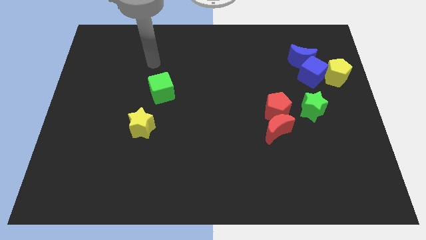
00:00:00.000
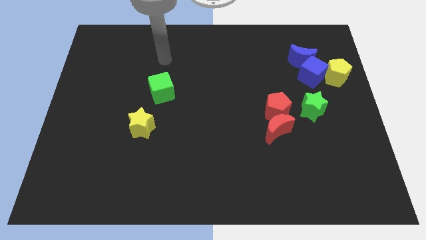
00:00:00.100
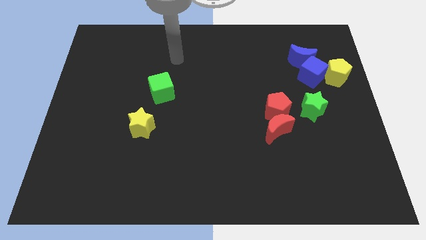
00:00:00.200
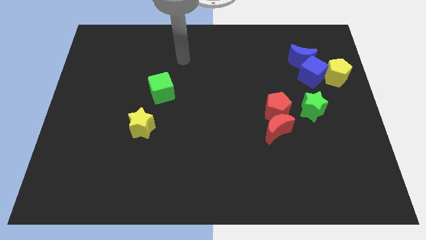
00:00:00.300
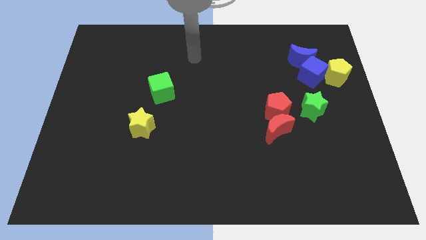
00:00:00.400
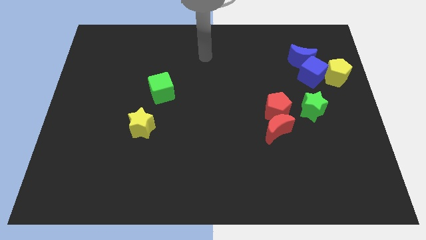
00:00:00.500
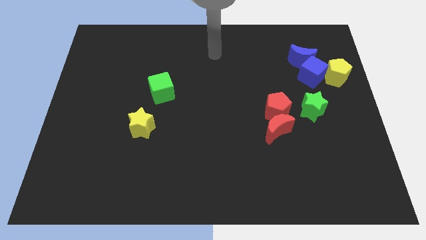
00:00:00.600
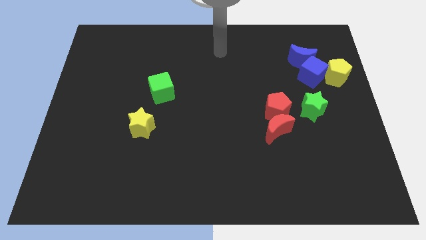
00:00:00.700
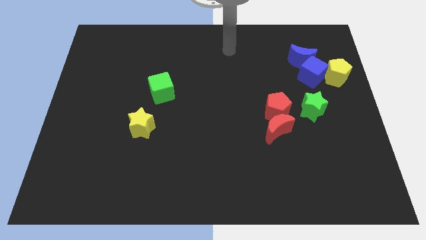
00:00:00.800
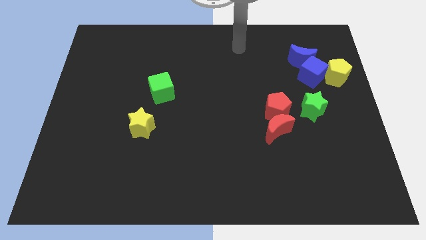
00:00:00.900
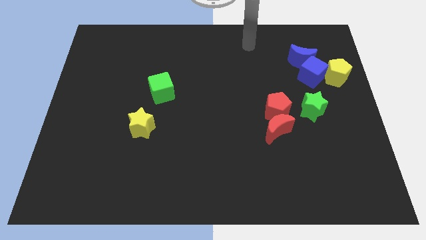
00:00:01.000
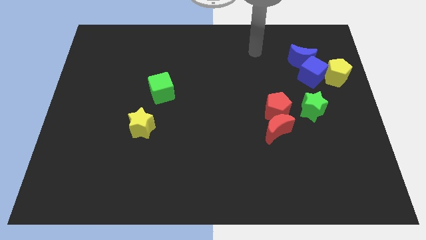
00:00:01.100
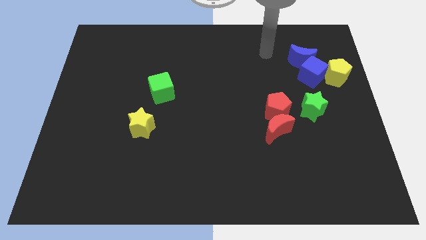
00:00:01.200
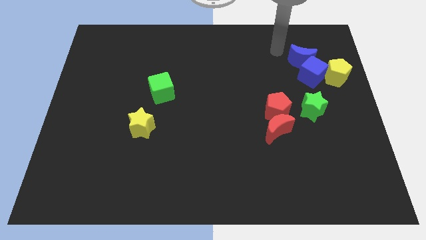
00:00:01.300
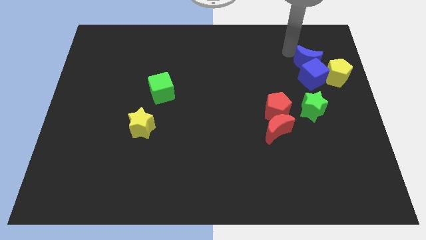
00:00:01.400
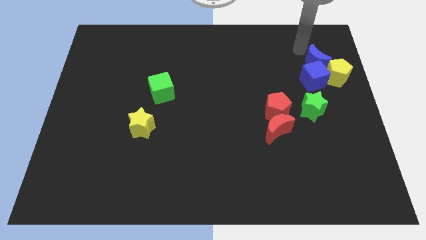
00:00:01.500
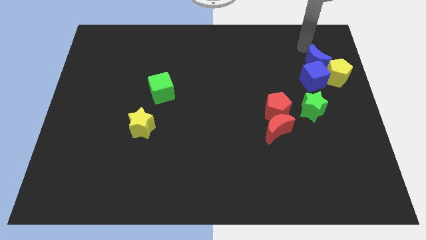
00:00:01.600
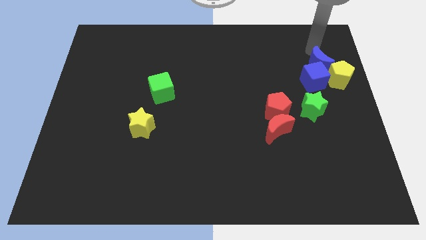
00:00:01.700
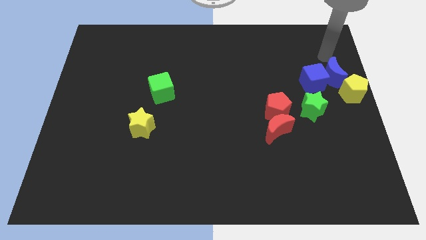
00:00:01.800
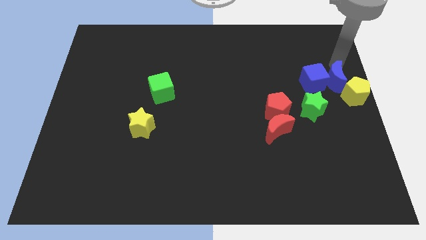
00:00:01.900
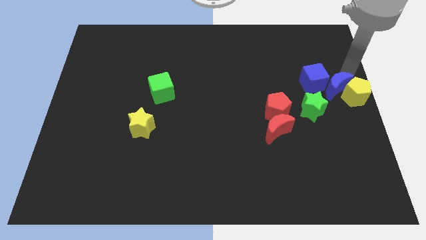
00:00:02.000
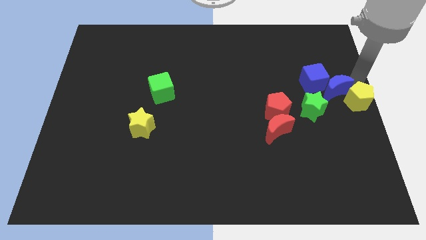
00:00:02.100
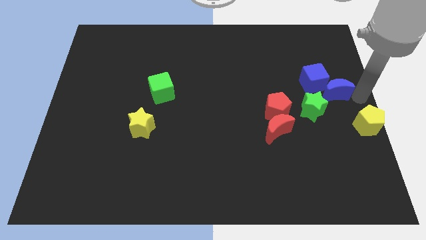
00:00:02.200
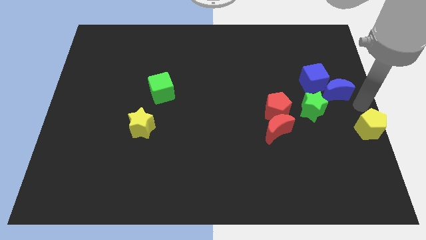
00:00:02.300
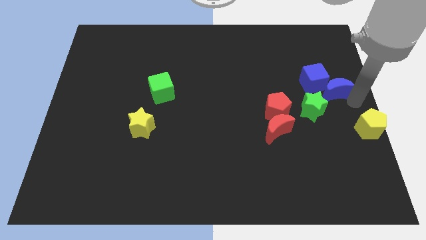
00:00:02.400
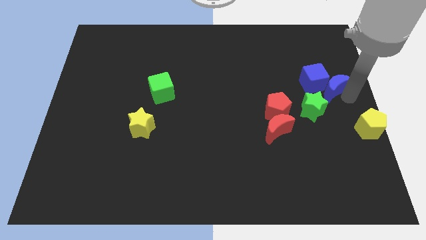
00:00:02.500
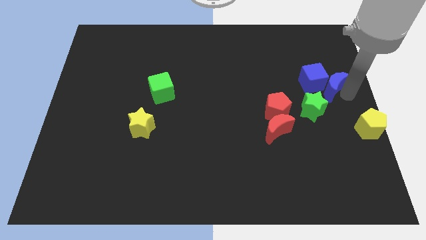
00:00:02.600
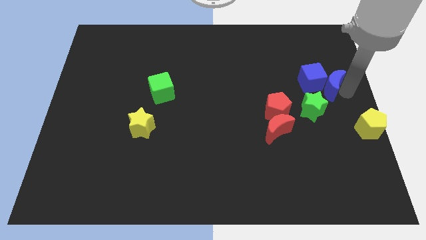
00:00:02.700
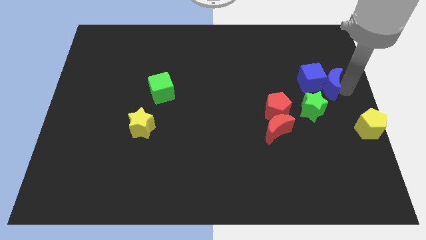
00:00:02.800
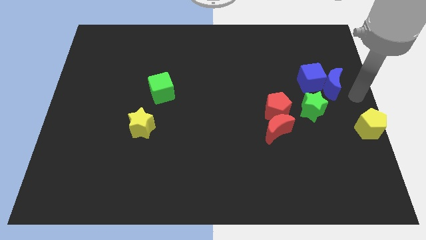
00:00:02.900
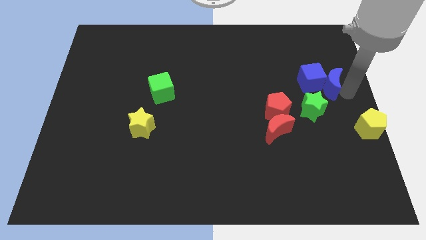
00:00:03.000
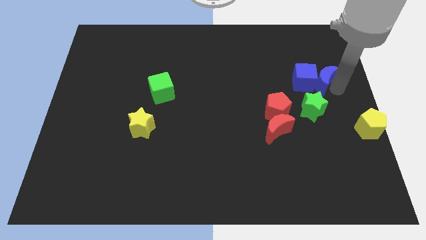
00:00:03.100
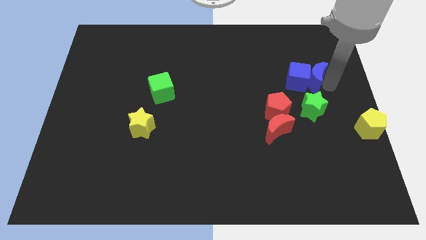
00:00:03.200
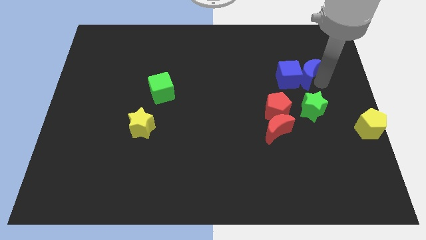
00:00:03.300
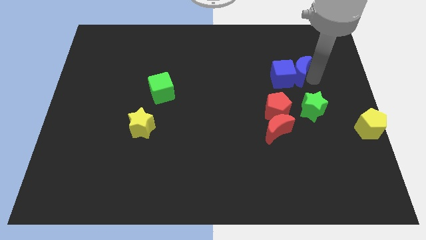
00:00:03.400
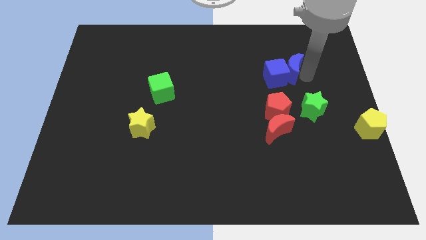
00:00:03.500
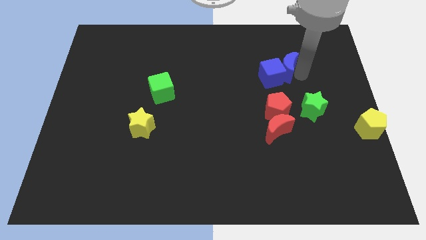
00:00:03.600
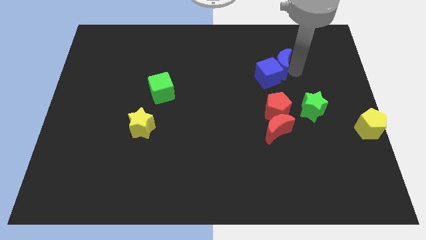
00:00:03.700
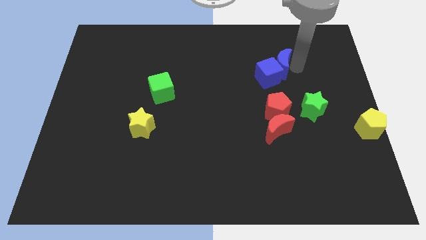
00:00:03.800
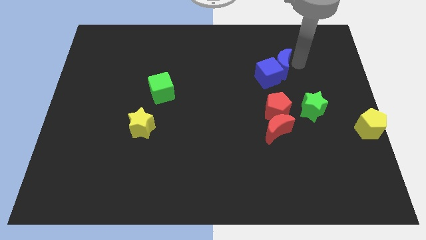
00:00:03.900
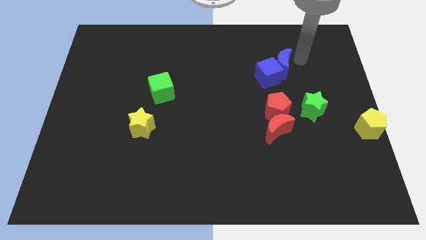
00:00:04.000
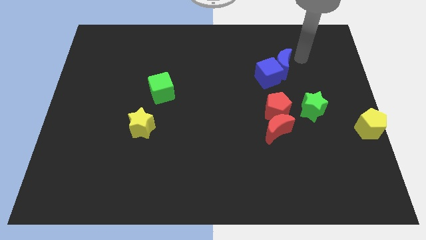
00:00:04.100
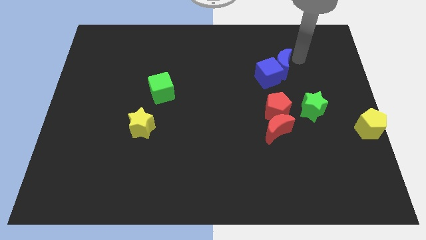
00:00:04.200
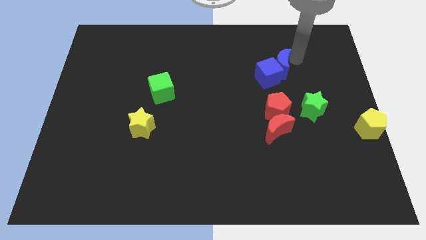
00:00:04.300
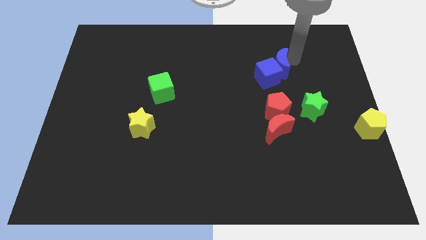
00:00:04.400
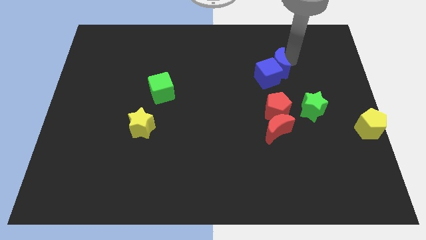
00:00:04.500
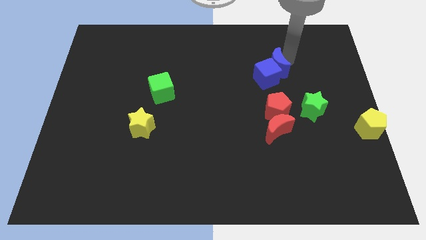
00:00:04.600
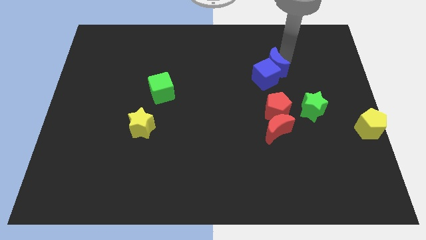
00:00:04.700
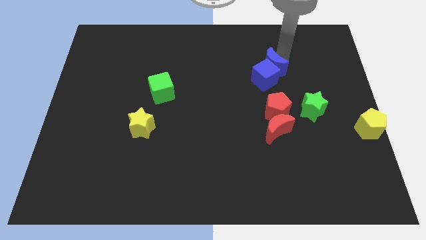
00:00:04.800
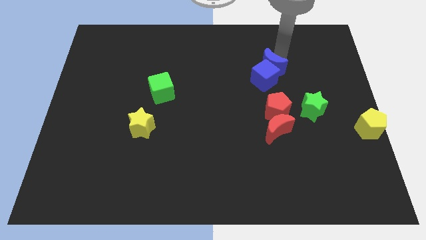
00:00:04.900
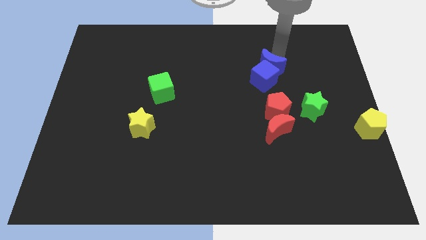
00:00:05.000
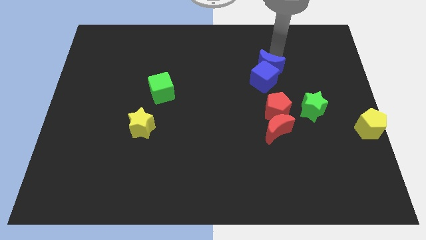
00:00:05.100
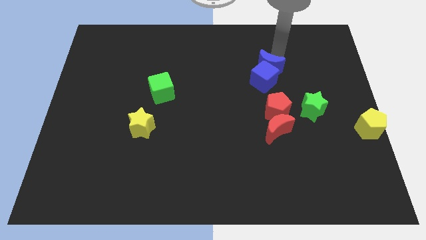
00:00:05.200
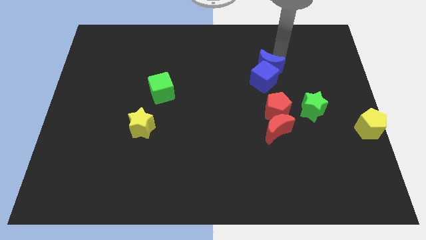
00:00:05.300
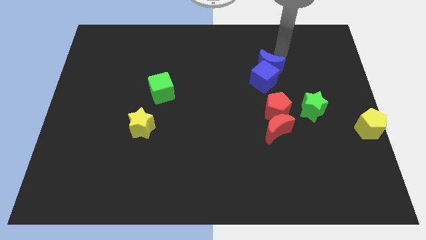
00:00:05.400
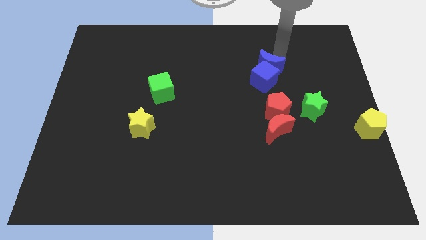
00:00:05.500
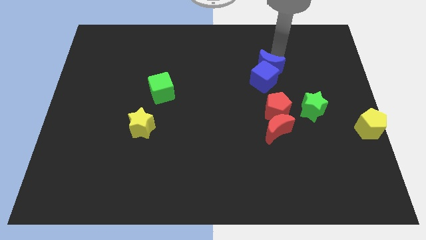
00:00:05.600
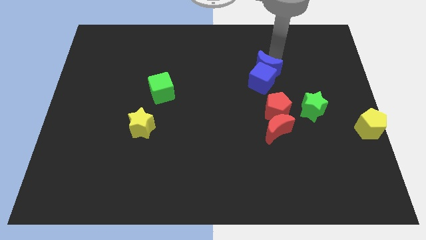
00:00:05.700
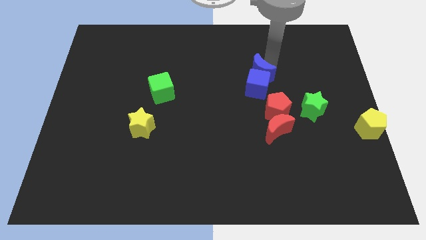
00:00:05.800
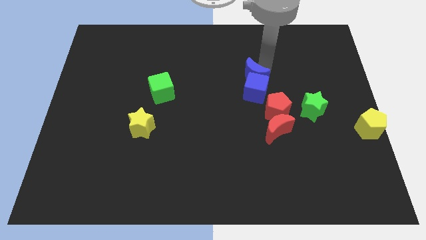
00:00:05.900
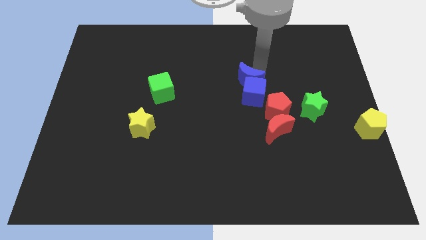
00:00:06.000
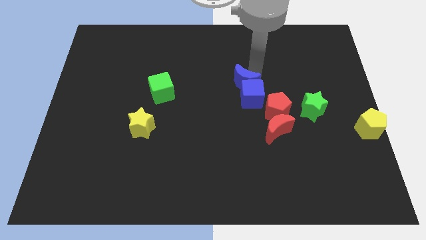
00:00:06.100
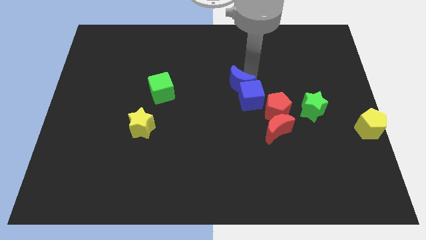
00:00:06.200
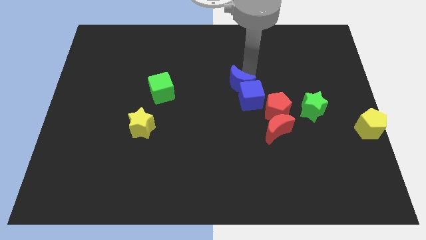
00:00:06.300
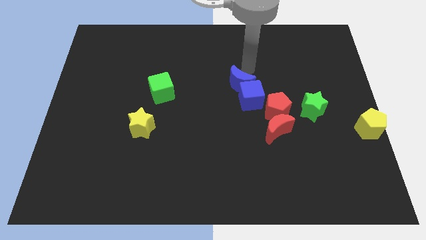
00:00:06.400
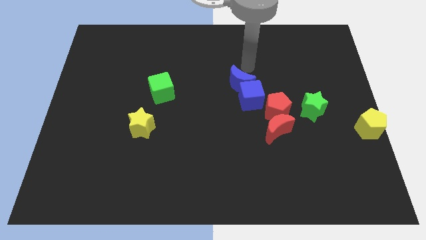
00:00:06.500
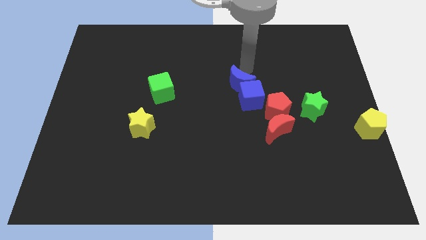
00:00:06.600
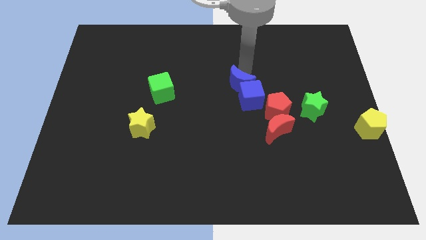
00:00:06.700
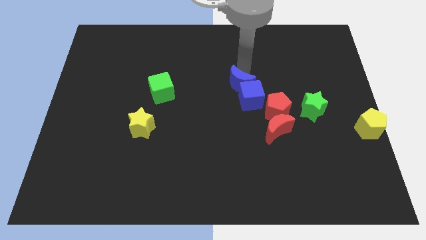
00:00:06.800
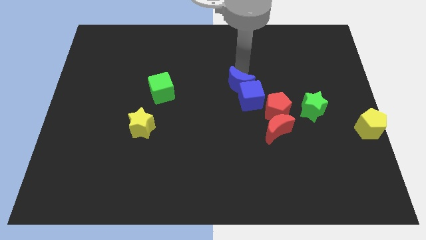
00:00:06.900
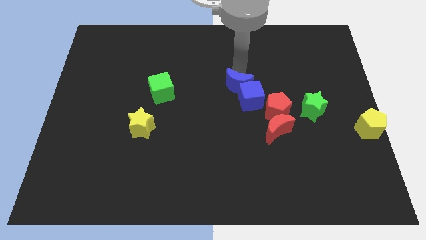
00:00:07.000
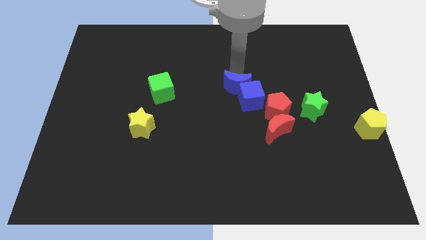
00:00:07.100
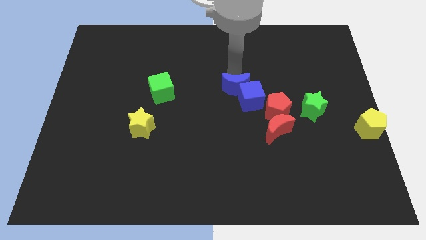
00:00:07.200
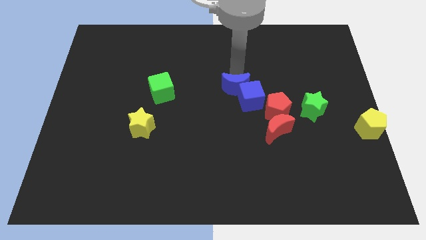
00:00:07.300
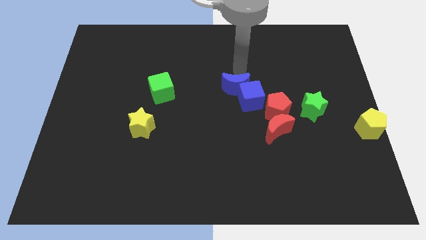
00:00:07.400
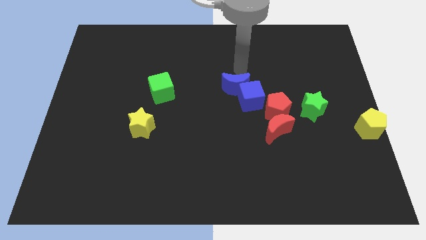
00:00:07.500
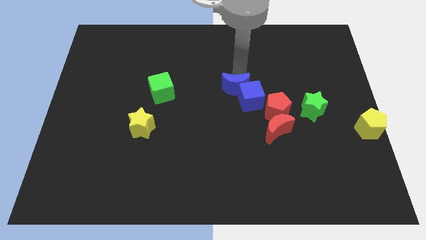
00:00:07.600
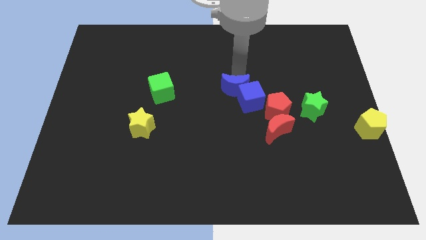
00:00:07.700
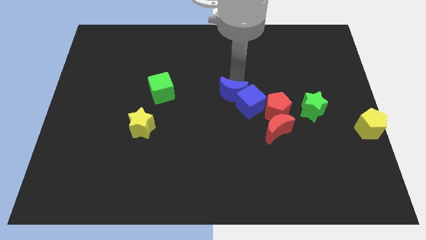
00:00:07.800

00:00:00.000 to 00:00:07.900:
push the blue moon diagonally downwards and to the left
